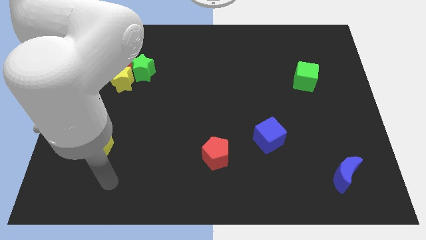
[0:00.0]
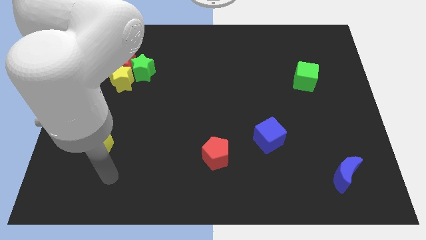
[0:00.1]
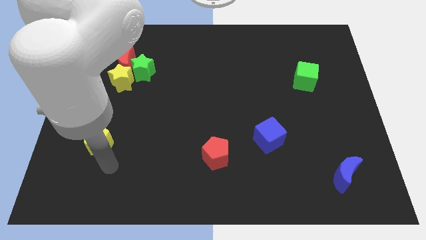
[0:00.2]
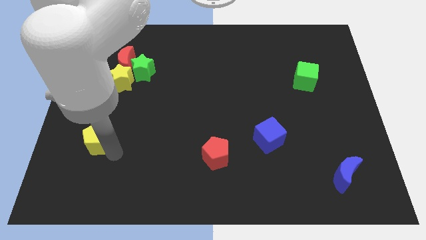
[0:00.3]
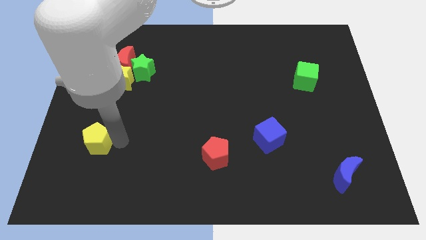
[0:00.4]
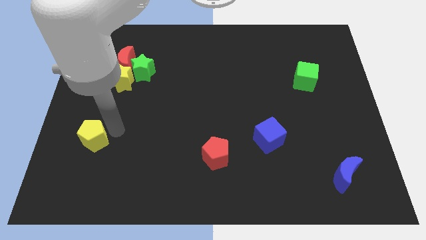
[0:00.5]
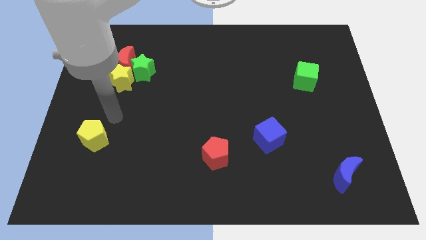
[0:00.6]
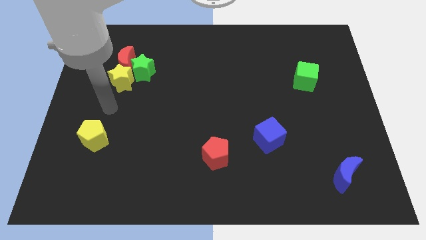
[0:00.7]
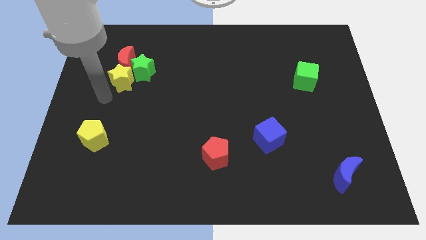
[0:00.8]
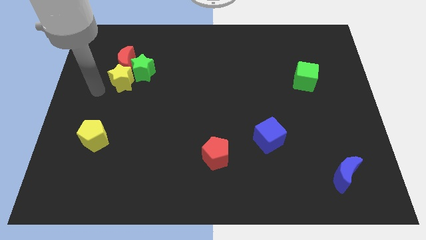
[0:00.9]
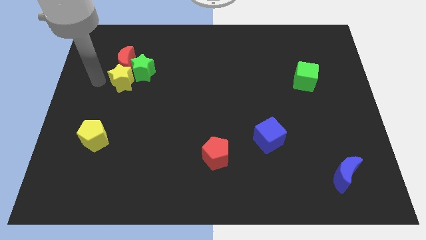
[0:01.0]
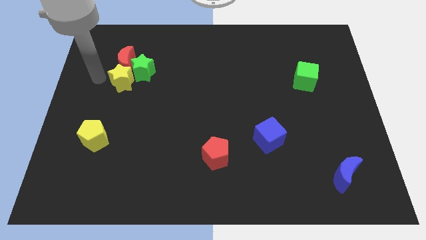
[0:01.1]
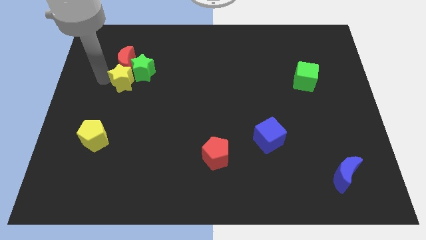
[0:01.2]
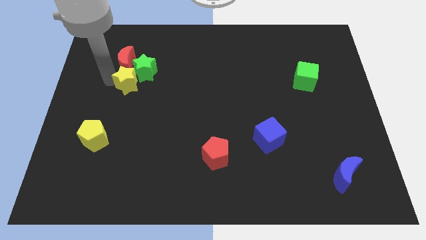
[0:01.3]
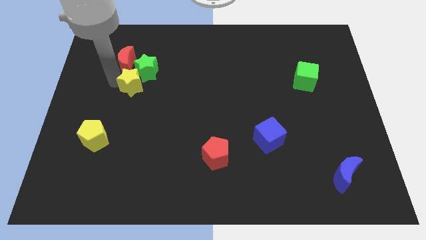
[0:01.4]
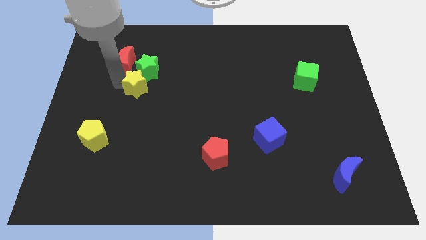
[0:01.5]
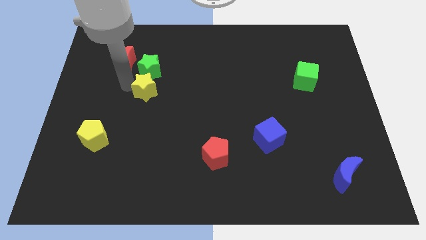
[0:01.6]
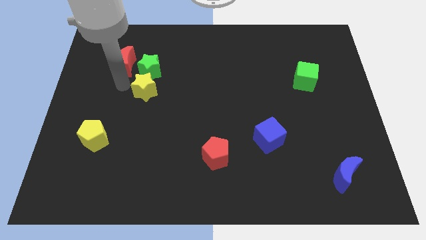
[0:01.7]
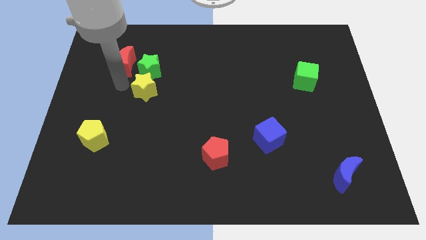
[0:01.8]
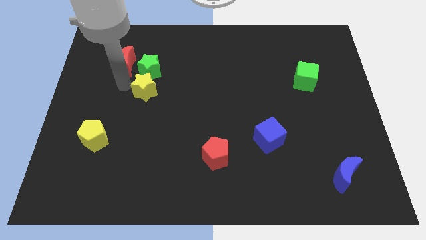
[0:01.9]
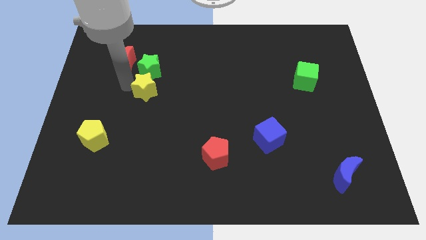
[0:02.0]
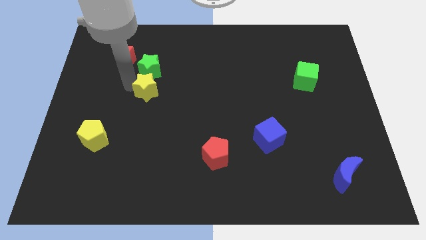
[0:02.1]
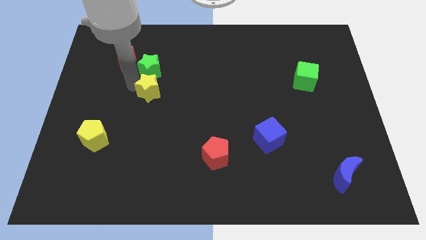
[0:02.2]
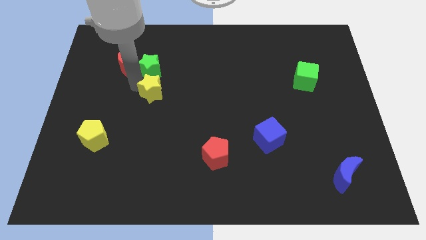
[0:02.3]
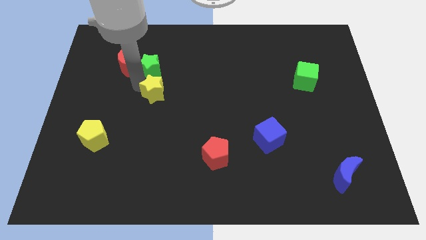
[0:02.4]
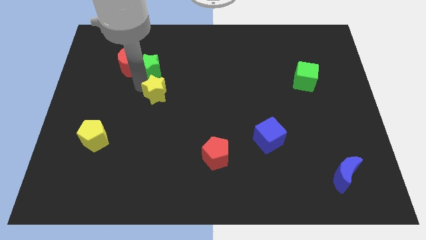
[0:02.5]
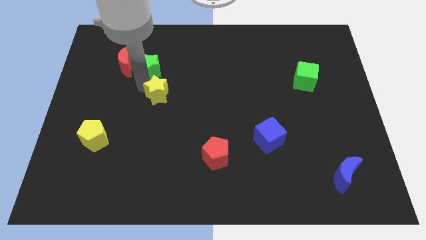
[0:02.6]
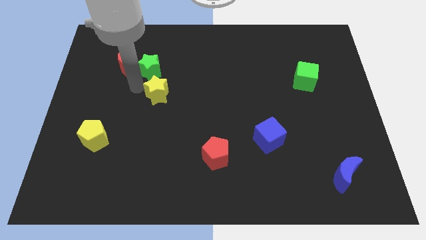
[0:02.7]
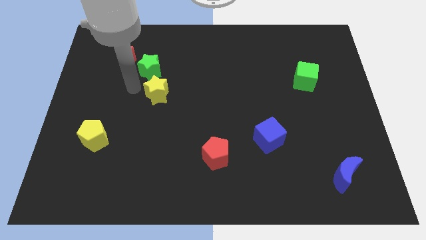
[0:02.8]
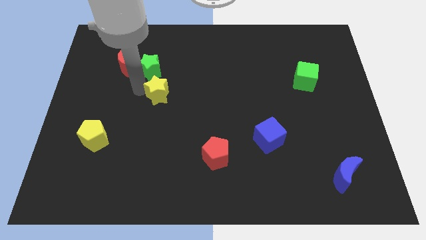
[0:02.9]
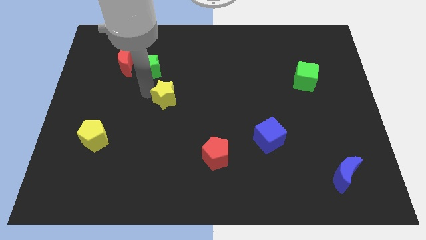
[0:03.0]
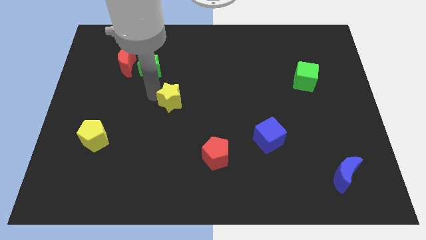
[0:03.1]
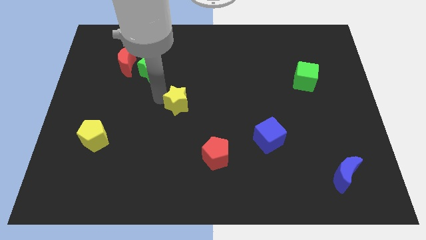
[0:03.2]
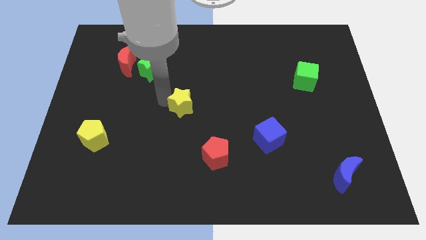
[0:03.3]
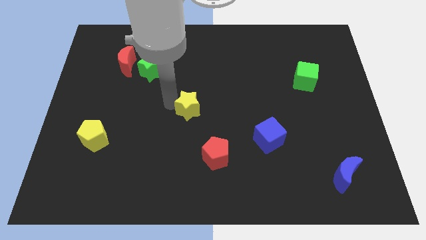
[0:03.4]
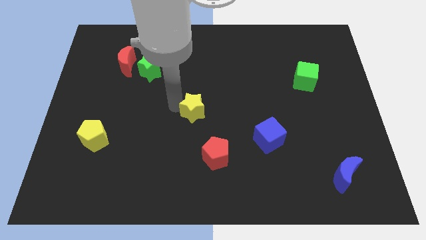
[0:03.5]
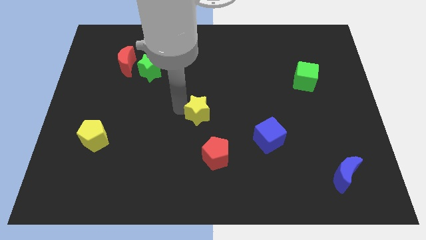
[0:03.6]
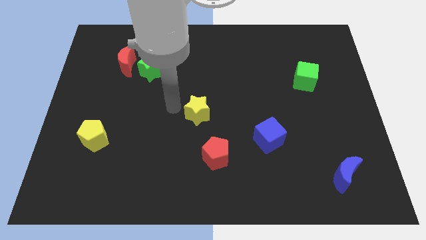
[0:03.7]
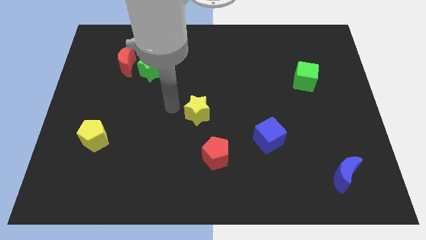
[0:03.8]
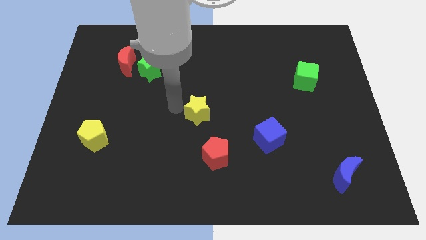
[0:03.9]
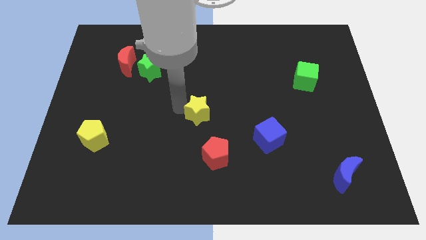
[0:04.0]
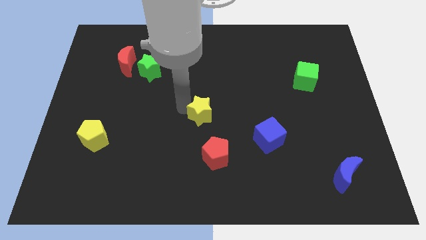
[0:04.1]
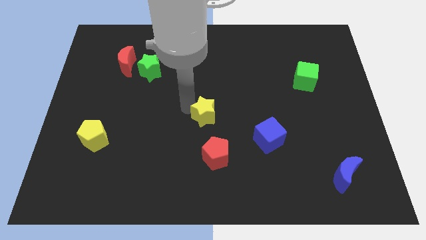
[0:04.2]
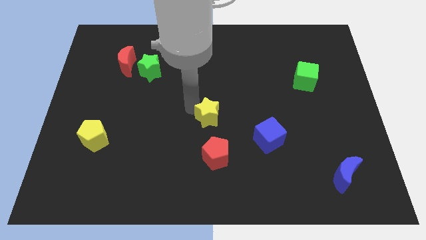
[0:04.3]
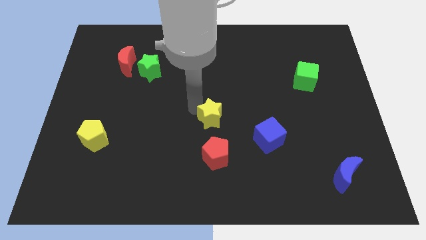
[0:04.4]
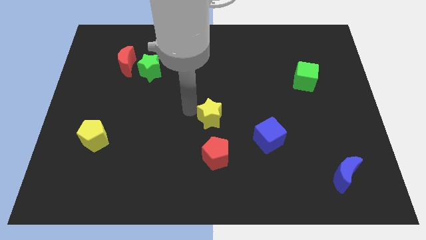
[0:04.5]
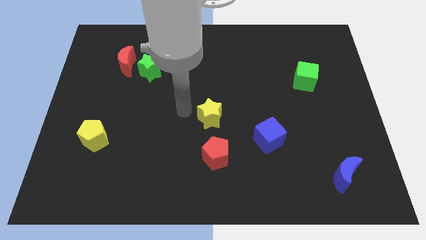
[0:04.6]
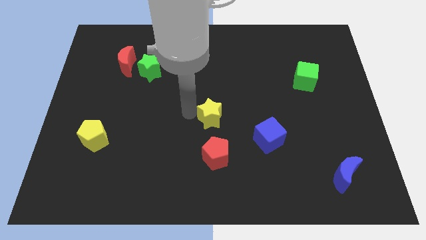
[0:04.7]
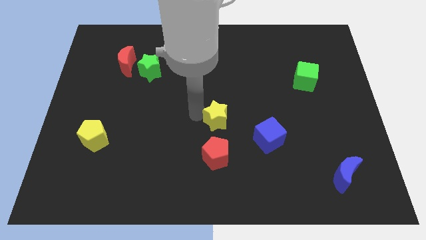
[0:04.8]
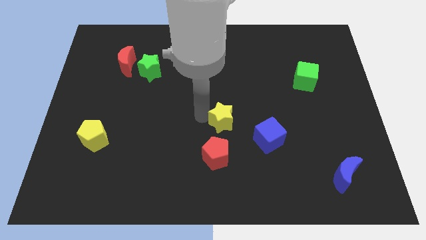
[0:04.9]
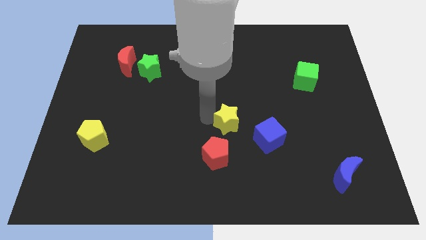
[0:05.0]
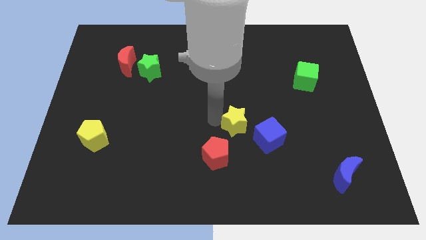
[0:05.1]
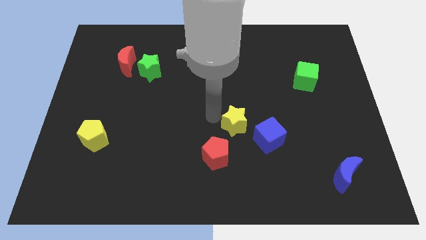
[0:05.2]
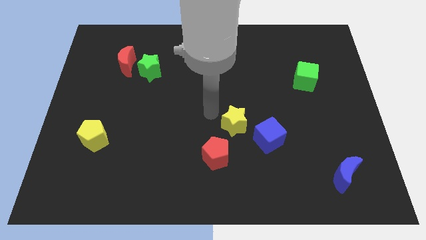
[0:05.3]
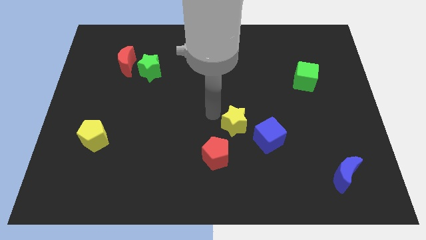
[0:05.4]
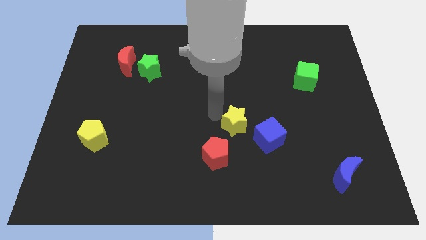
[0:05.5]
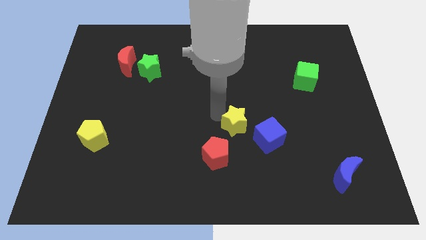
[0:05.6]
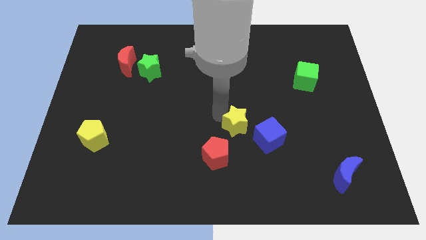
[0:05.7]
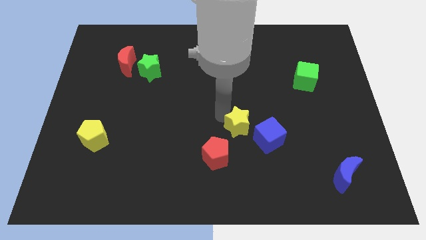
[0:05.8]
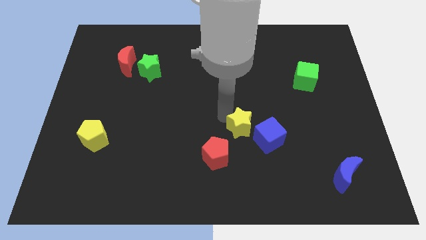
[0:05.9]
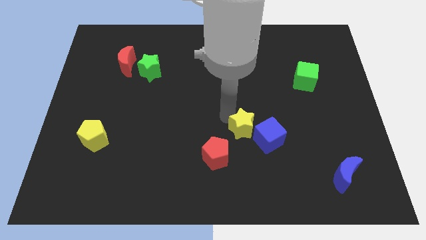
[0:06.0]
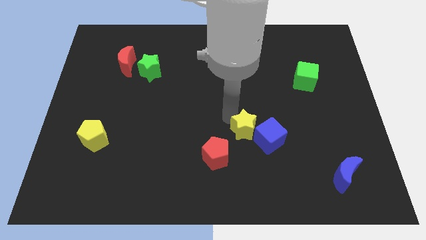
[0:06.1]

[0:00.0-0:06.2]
push the yellow star next to the blue cube

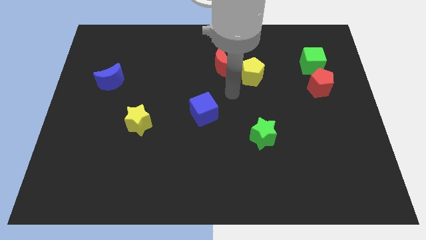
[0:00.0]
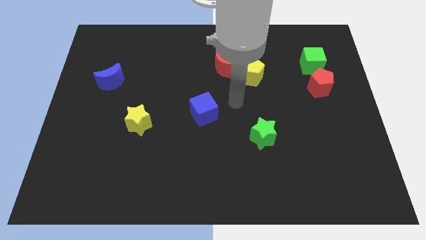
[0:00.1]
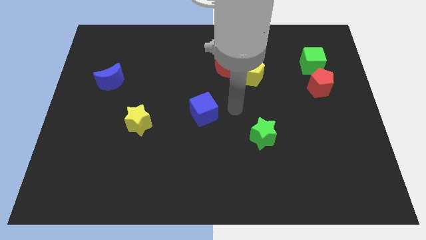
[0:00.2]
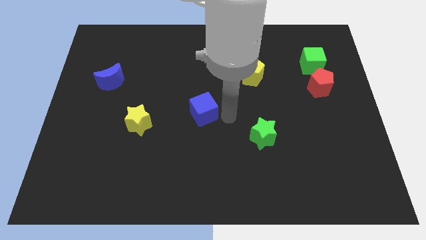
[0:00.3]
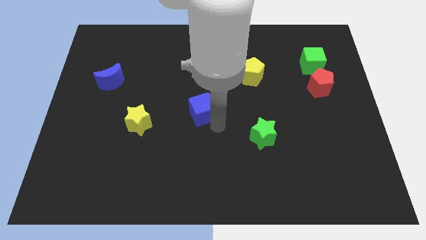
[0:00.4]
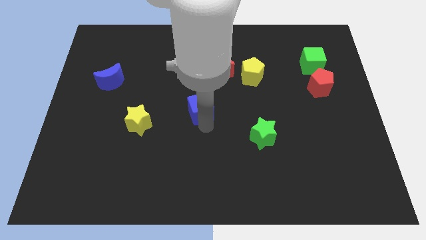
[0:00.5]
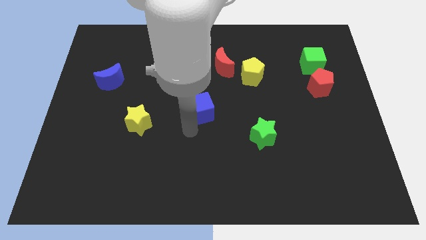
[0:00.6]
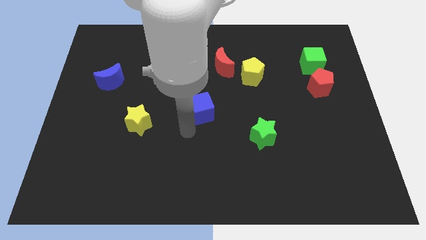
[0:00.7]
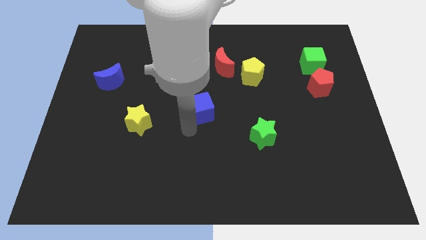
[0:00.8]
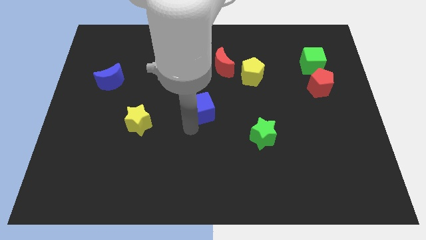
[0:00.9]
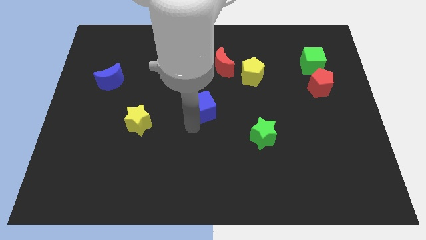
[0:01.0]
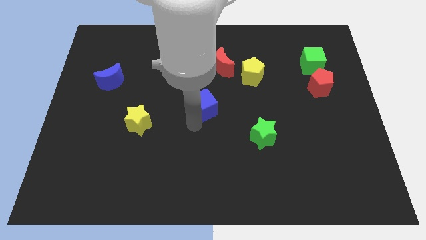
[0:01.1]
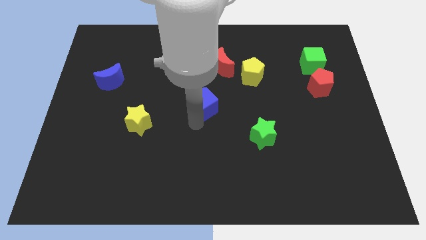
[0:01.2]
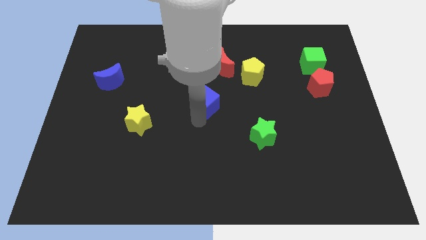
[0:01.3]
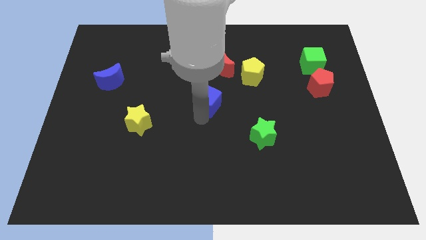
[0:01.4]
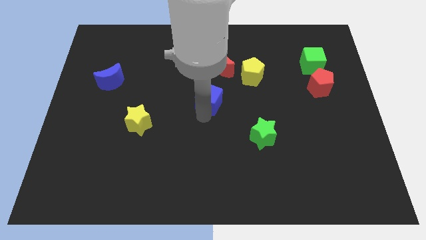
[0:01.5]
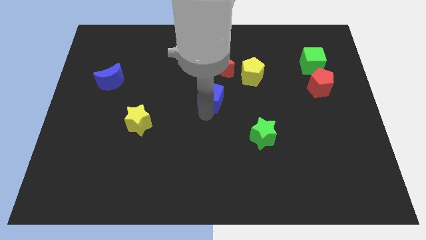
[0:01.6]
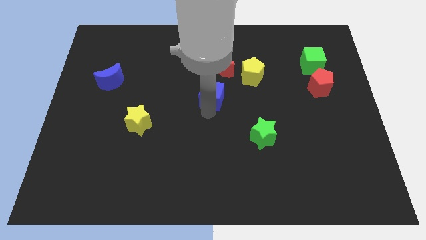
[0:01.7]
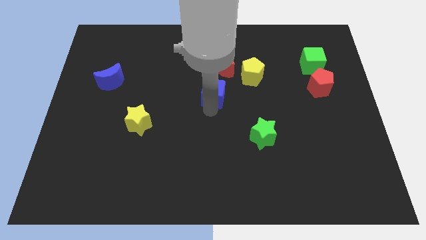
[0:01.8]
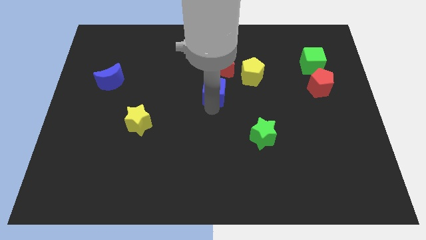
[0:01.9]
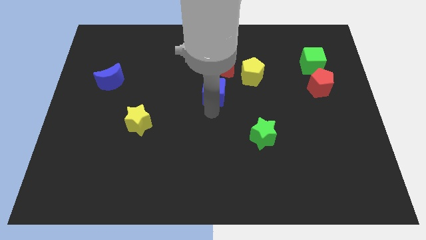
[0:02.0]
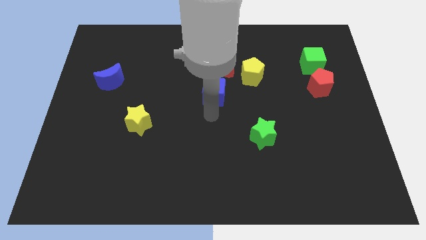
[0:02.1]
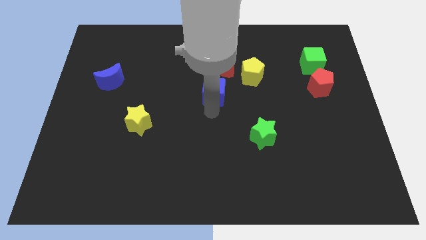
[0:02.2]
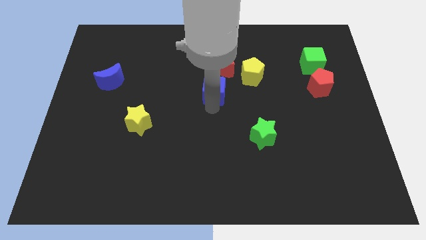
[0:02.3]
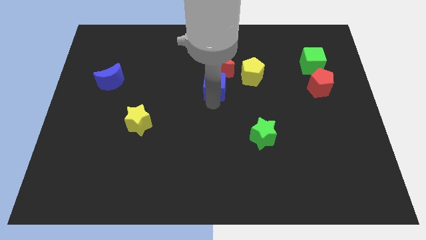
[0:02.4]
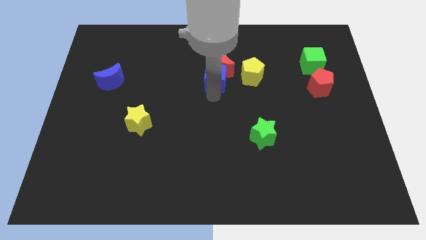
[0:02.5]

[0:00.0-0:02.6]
push the blue cube towards the red moon
